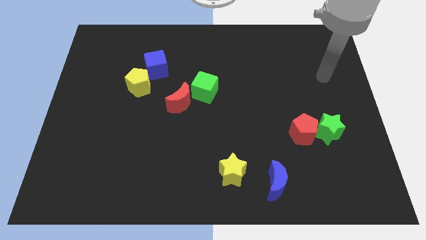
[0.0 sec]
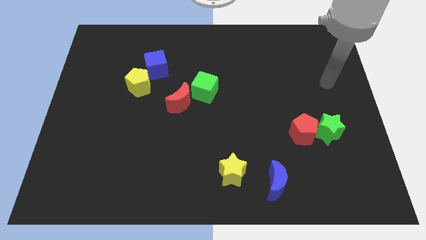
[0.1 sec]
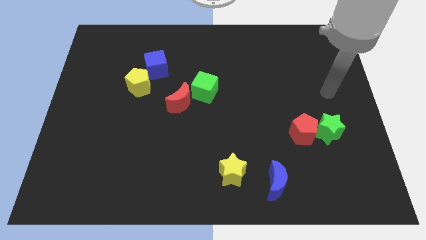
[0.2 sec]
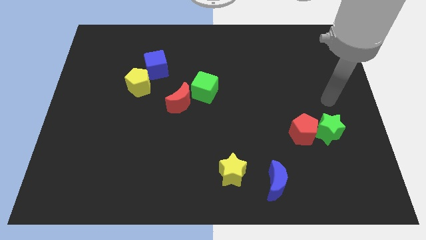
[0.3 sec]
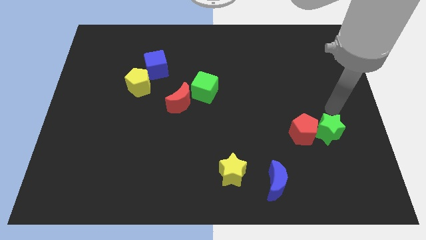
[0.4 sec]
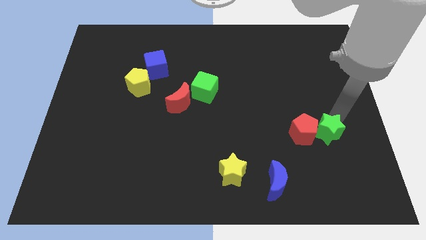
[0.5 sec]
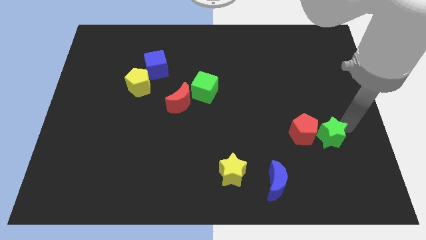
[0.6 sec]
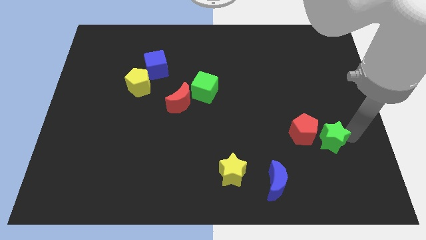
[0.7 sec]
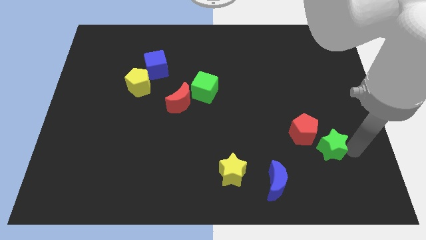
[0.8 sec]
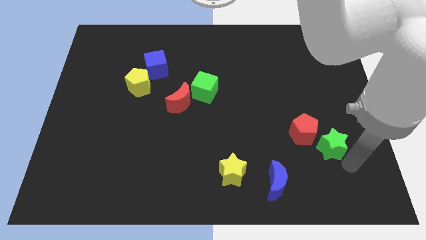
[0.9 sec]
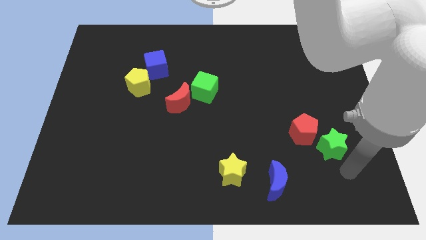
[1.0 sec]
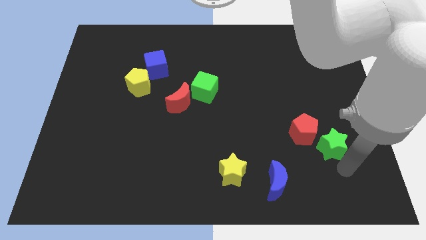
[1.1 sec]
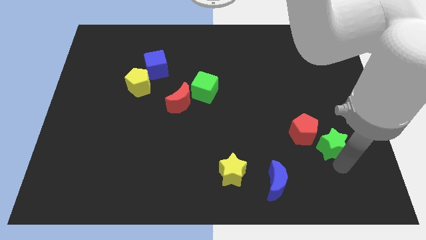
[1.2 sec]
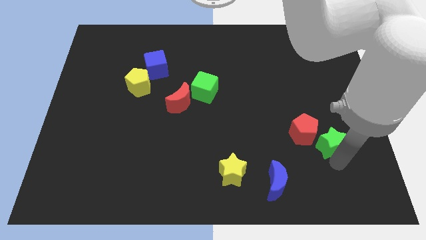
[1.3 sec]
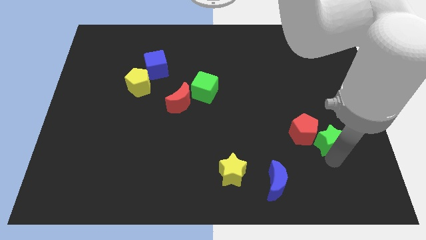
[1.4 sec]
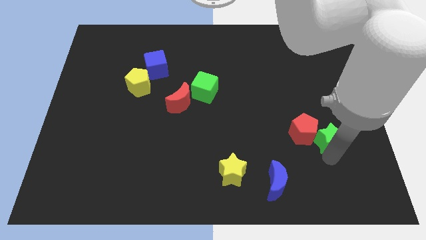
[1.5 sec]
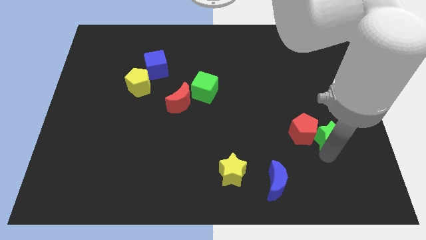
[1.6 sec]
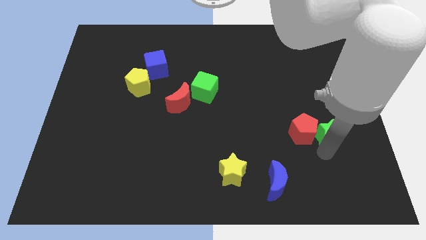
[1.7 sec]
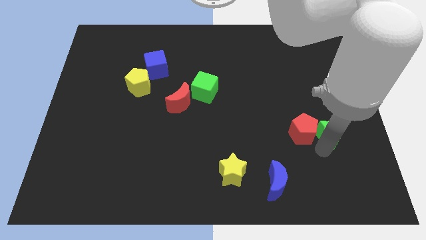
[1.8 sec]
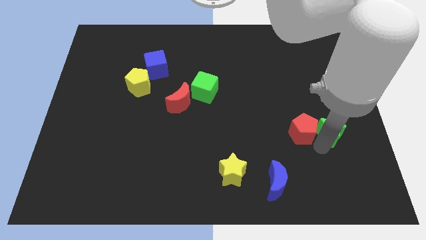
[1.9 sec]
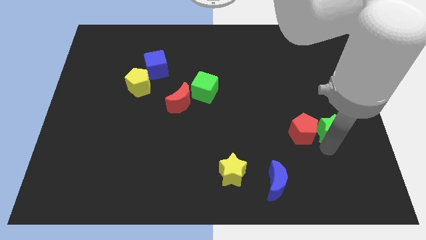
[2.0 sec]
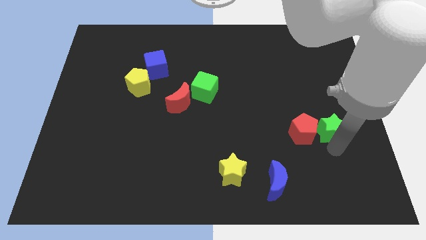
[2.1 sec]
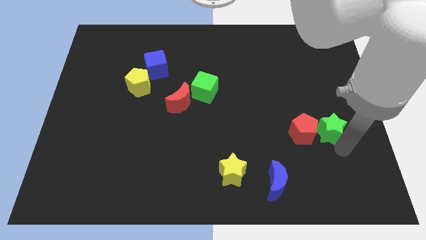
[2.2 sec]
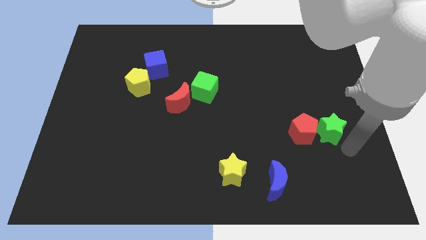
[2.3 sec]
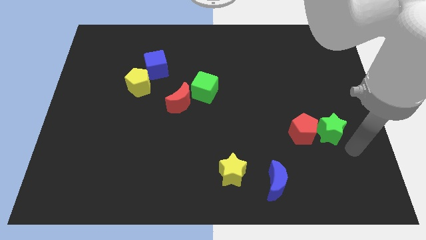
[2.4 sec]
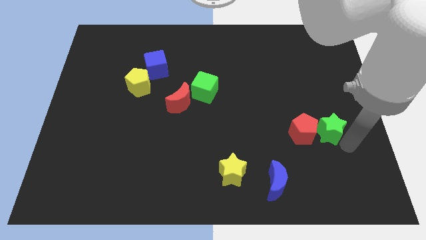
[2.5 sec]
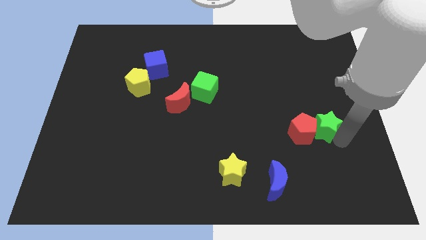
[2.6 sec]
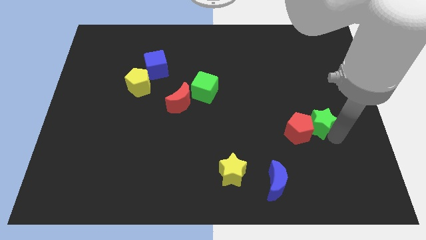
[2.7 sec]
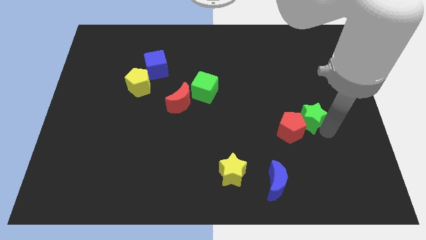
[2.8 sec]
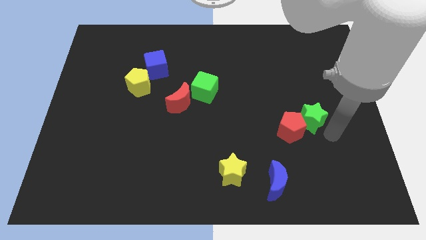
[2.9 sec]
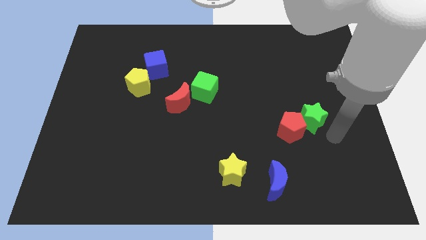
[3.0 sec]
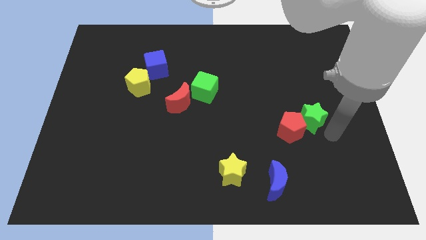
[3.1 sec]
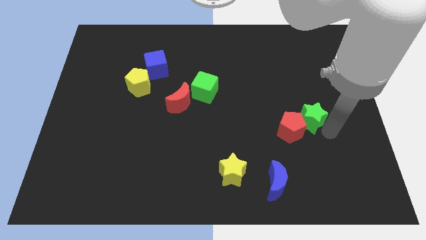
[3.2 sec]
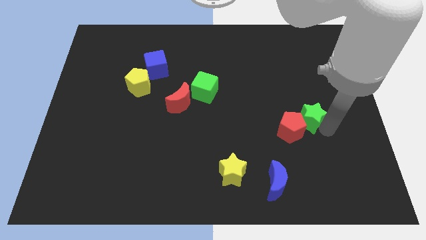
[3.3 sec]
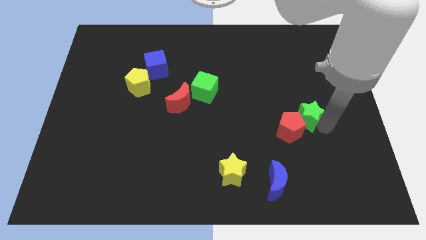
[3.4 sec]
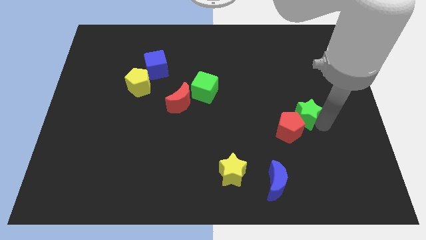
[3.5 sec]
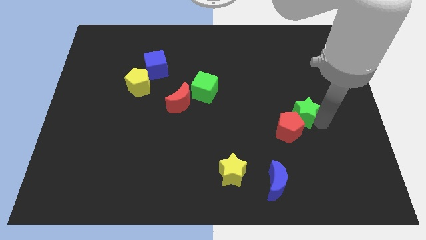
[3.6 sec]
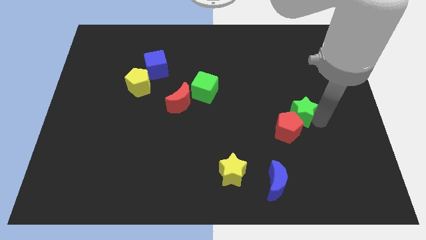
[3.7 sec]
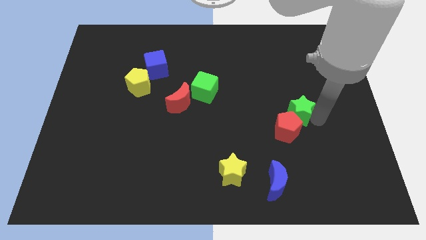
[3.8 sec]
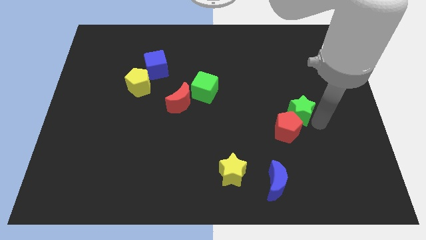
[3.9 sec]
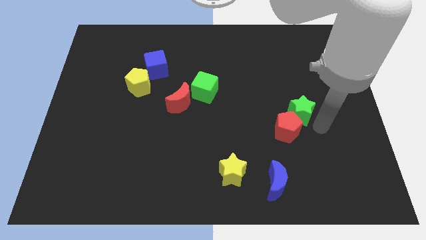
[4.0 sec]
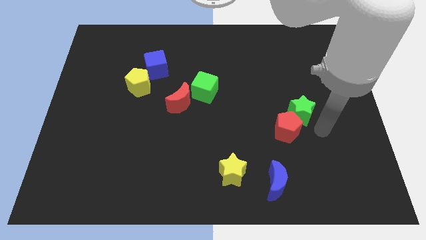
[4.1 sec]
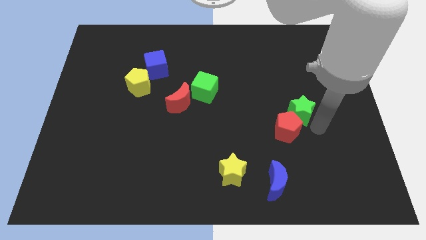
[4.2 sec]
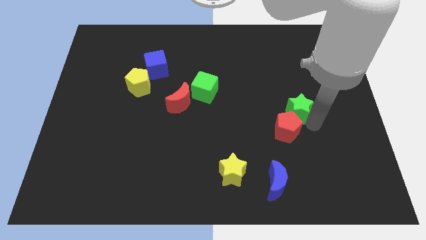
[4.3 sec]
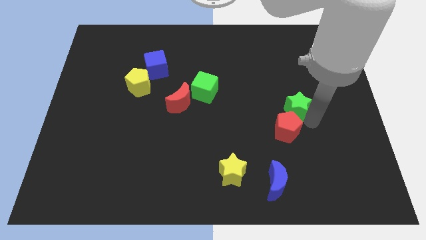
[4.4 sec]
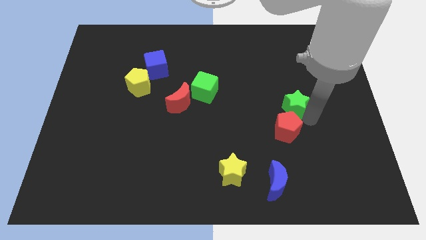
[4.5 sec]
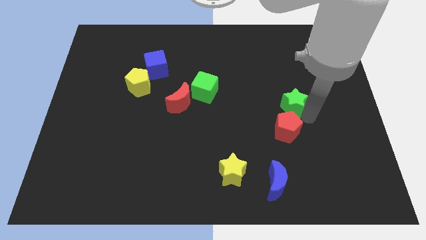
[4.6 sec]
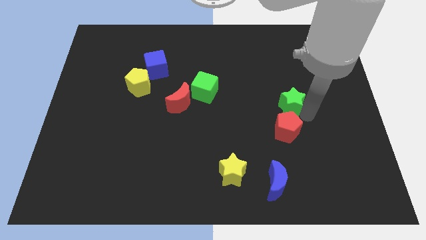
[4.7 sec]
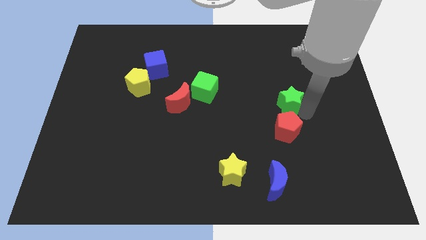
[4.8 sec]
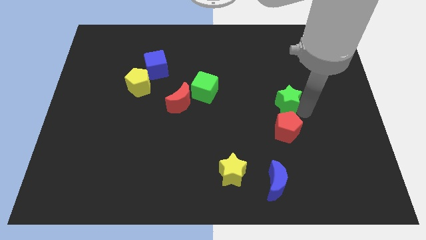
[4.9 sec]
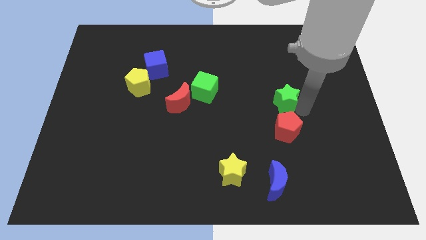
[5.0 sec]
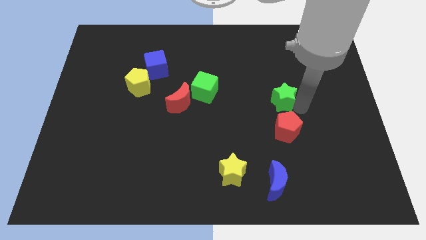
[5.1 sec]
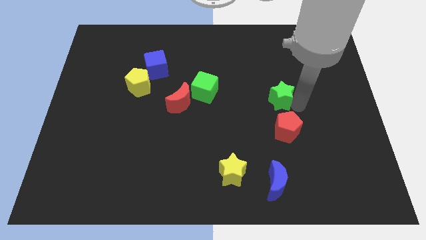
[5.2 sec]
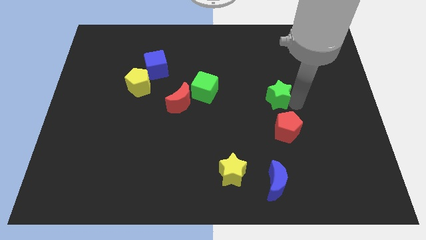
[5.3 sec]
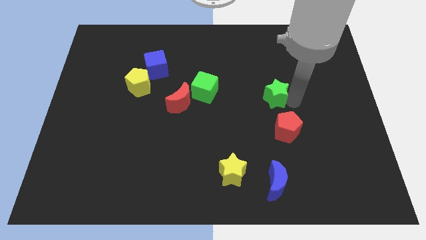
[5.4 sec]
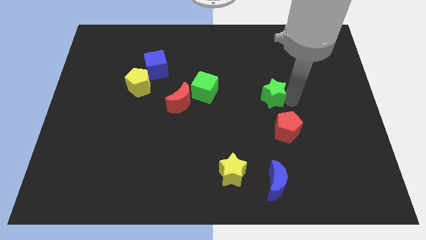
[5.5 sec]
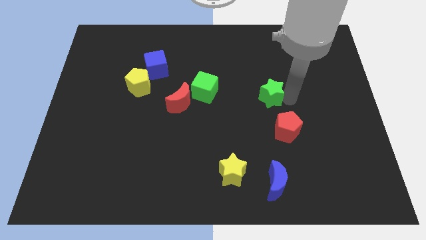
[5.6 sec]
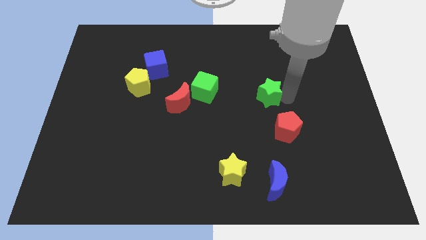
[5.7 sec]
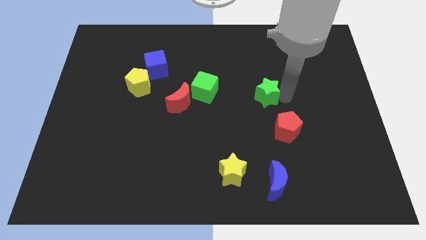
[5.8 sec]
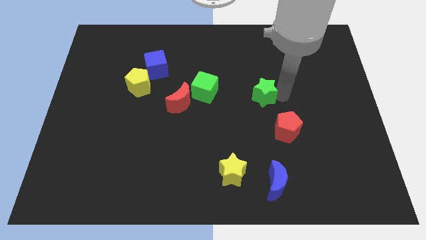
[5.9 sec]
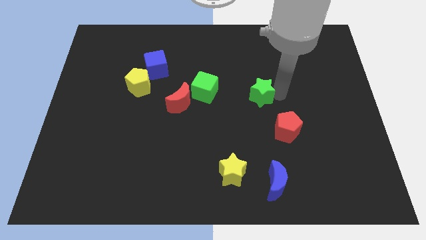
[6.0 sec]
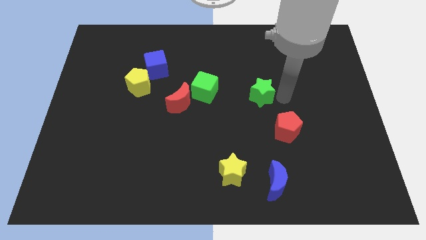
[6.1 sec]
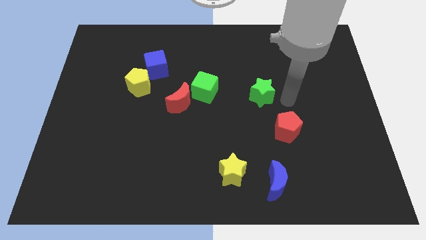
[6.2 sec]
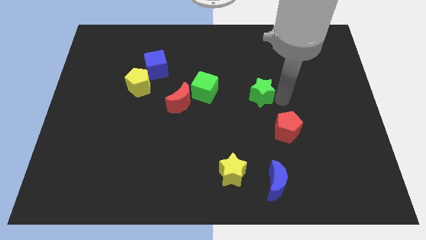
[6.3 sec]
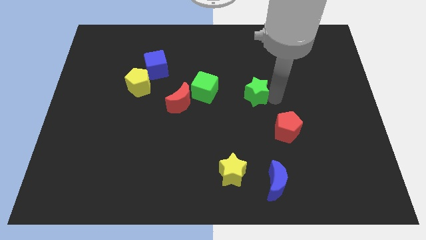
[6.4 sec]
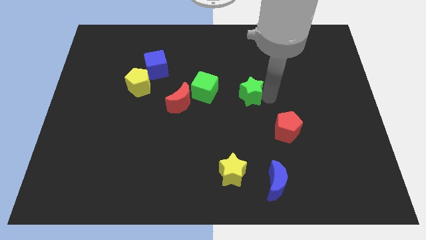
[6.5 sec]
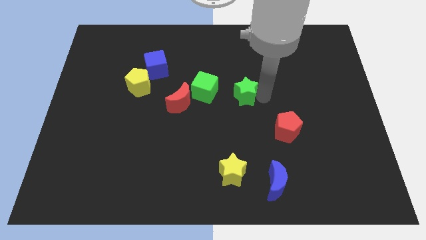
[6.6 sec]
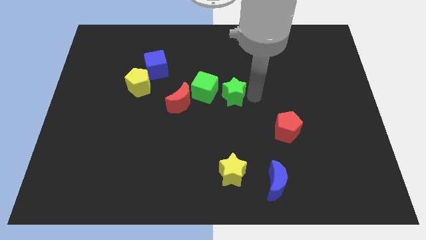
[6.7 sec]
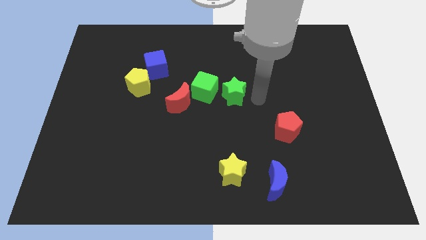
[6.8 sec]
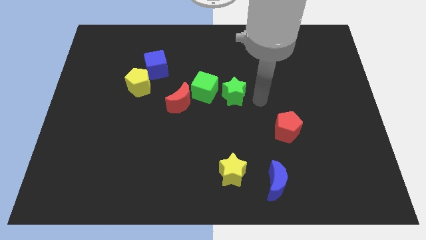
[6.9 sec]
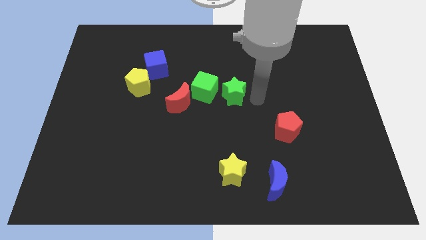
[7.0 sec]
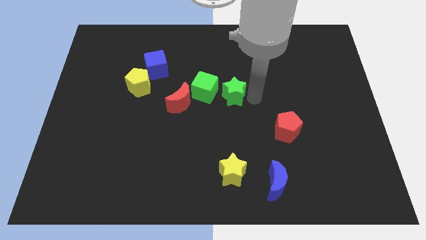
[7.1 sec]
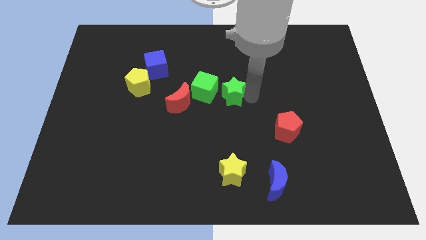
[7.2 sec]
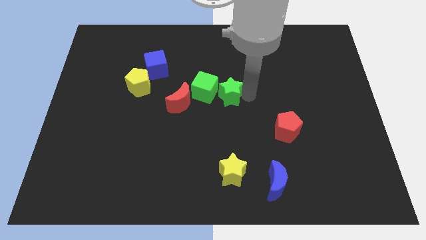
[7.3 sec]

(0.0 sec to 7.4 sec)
slide the green star close to the green cube
